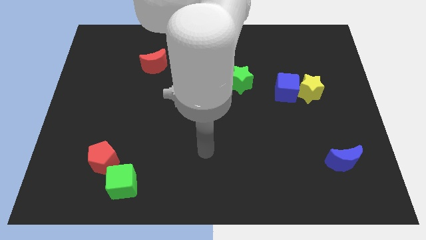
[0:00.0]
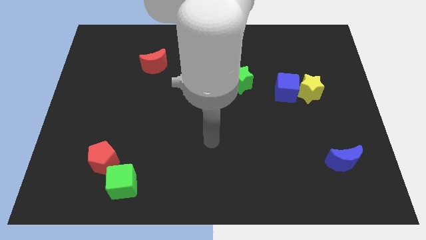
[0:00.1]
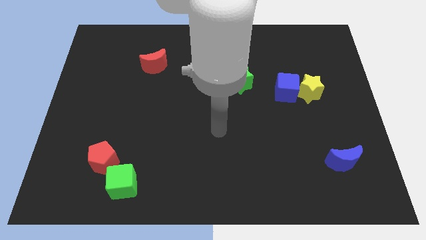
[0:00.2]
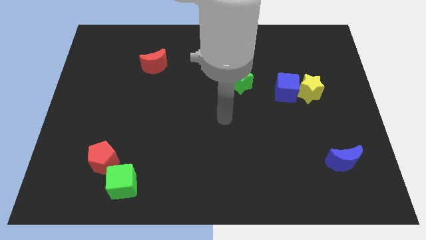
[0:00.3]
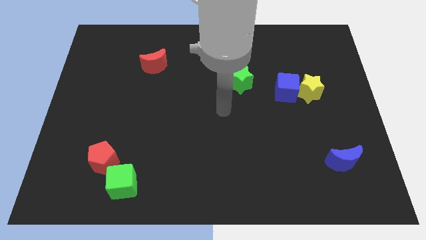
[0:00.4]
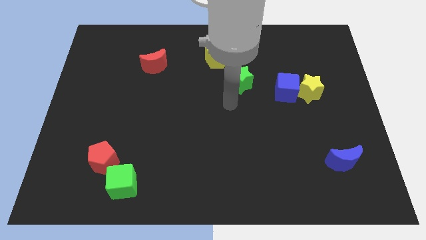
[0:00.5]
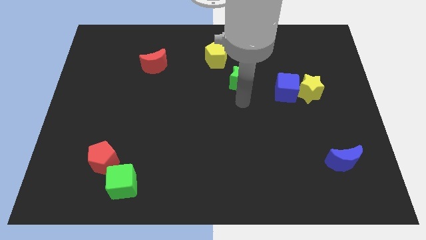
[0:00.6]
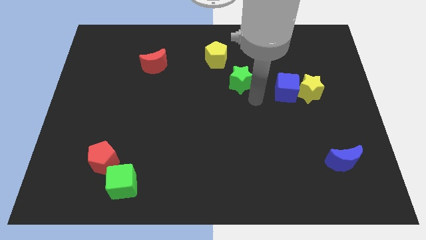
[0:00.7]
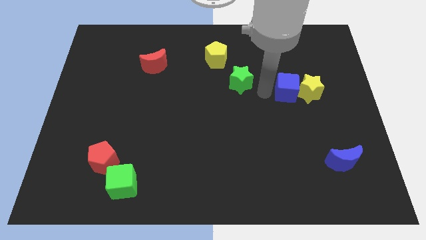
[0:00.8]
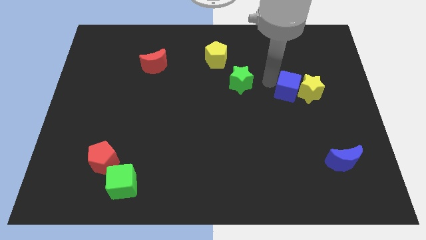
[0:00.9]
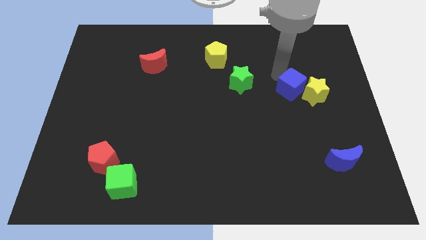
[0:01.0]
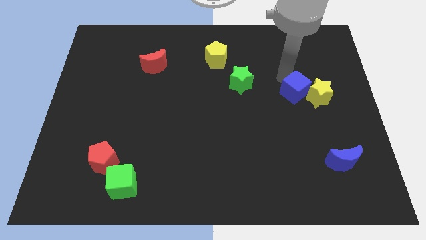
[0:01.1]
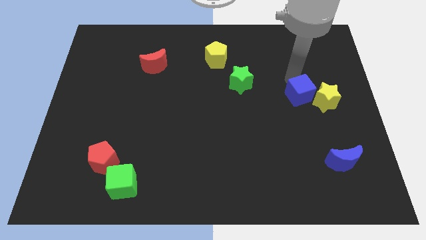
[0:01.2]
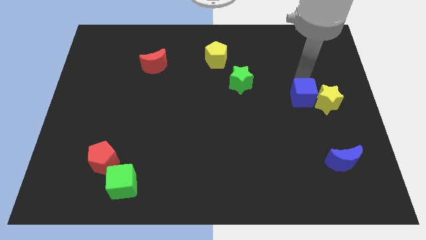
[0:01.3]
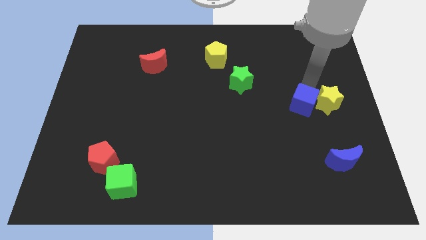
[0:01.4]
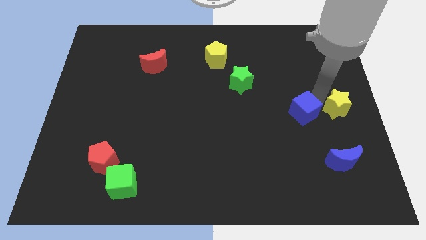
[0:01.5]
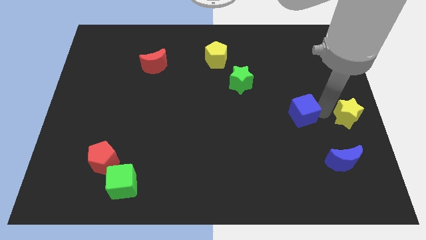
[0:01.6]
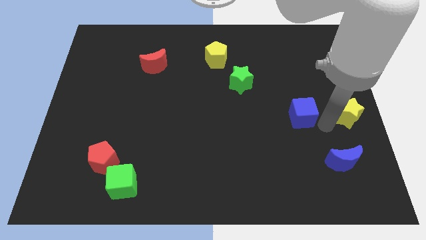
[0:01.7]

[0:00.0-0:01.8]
separate the blue cube from the yellow star

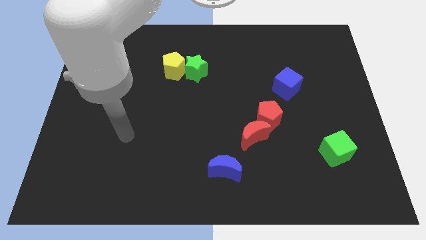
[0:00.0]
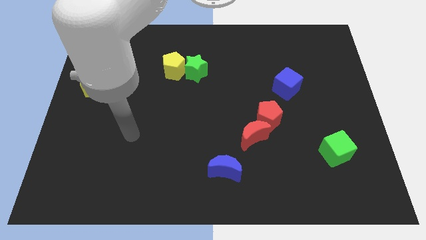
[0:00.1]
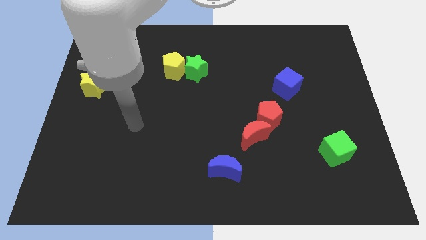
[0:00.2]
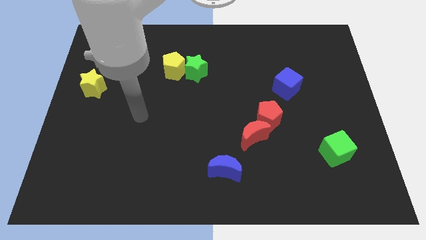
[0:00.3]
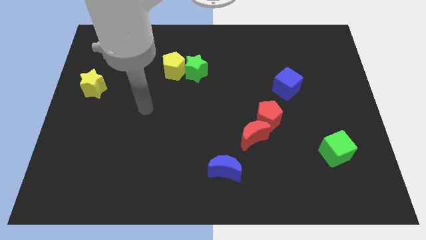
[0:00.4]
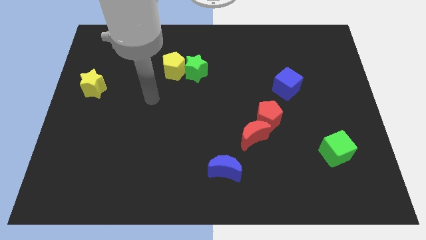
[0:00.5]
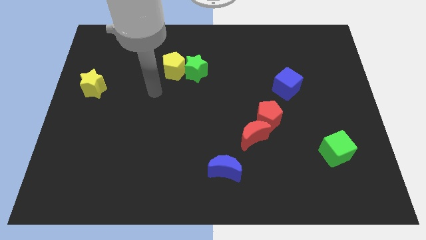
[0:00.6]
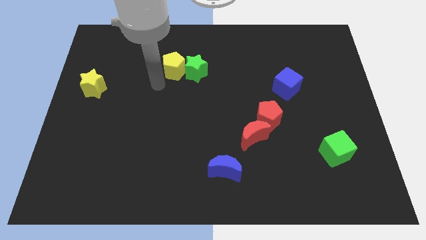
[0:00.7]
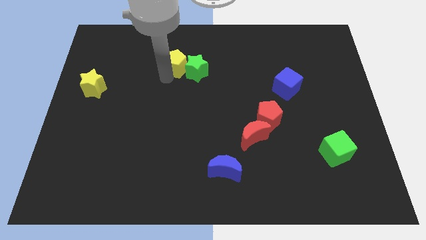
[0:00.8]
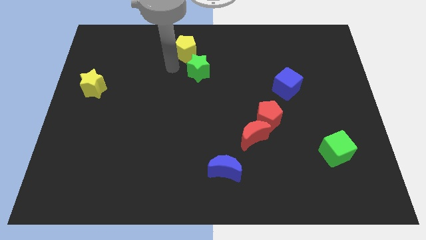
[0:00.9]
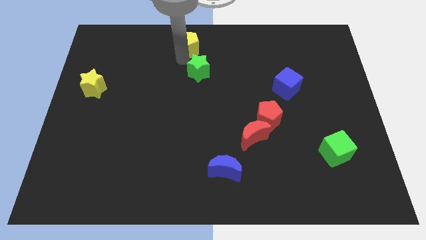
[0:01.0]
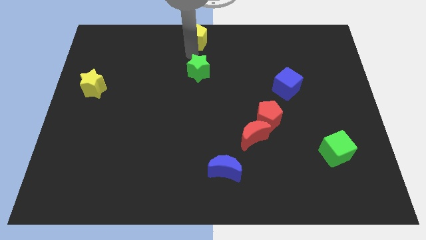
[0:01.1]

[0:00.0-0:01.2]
pull the green star apart from the yellow pentagon

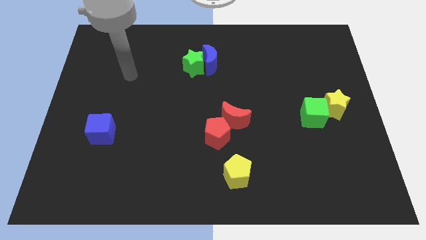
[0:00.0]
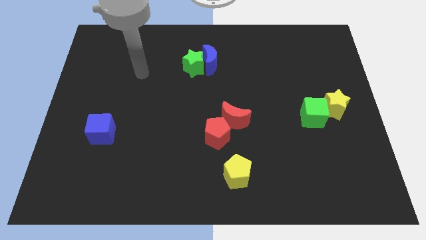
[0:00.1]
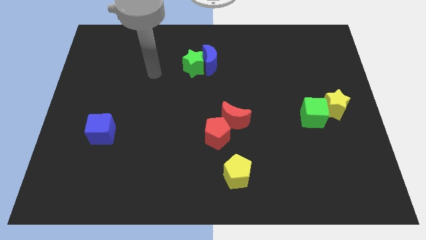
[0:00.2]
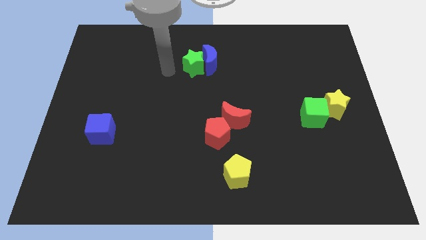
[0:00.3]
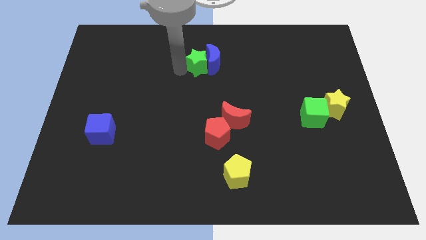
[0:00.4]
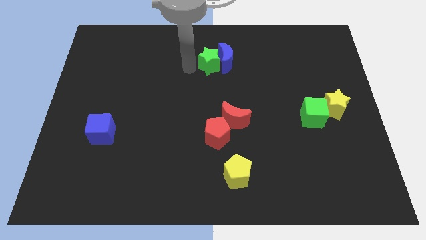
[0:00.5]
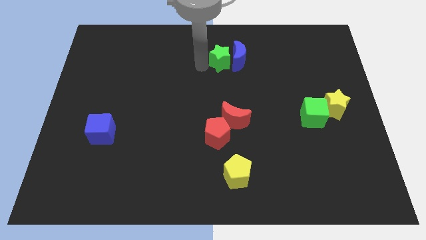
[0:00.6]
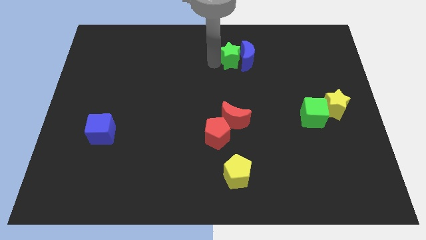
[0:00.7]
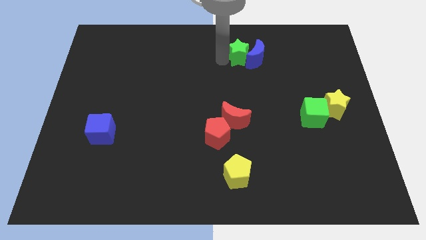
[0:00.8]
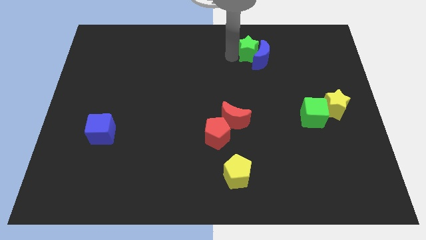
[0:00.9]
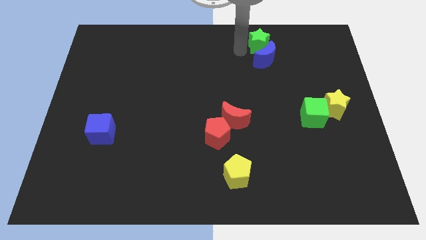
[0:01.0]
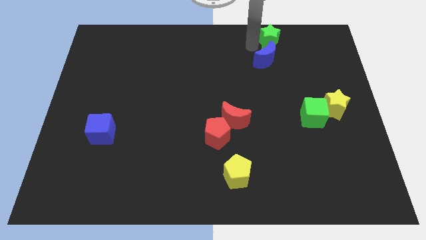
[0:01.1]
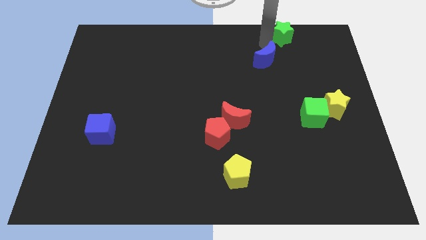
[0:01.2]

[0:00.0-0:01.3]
separate the blue moon from the green star

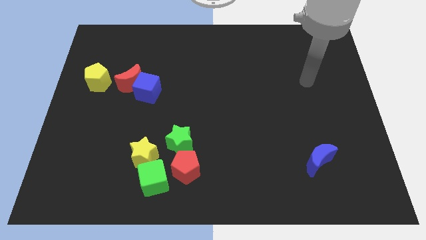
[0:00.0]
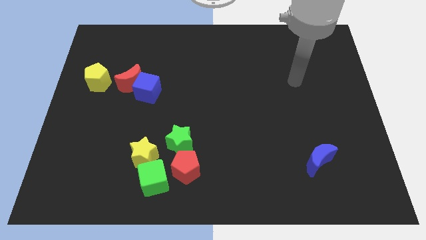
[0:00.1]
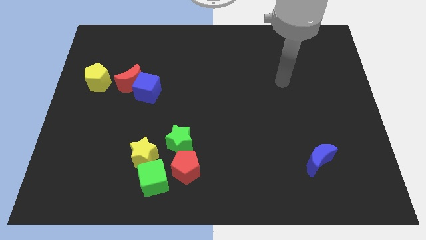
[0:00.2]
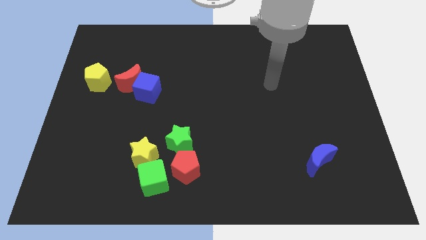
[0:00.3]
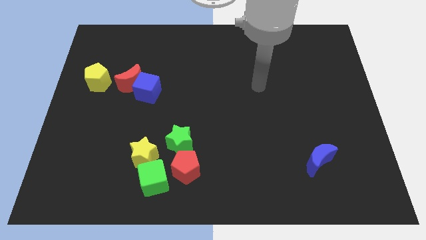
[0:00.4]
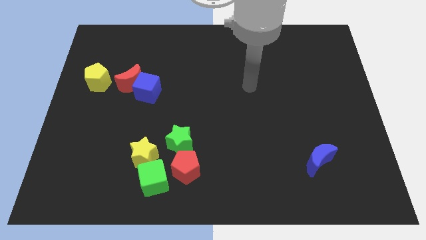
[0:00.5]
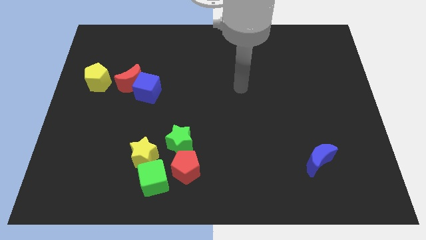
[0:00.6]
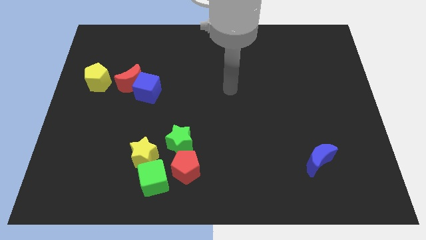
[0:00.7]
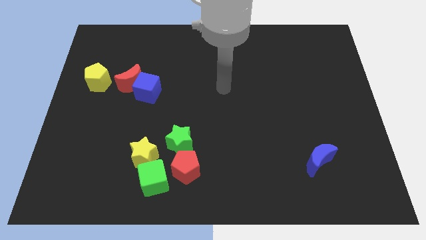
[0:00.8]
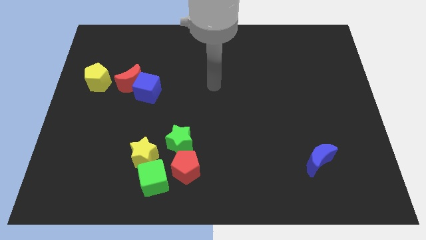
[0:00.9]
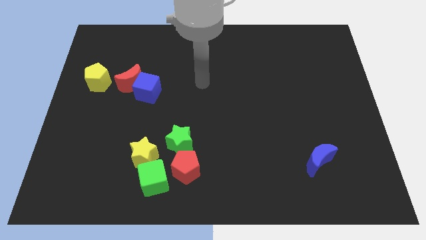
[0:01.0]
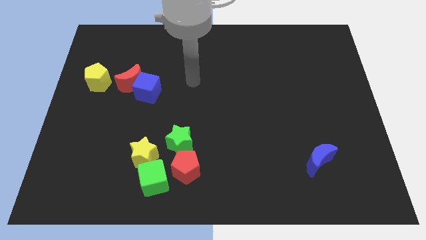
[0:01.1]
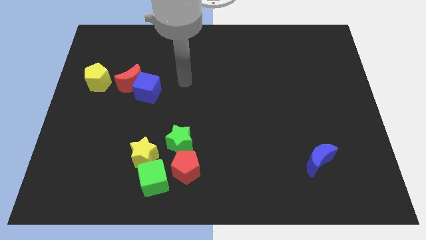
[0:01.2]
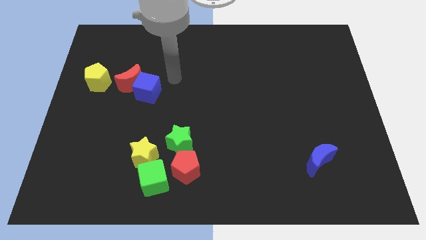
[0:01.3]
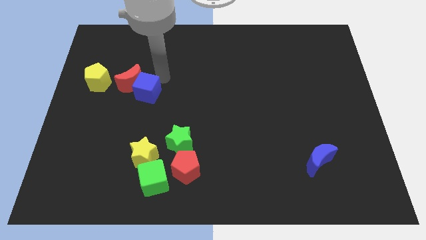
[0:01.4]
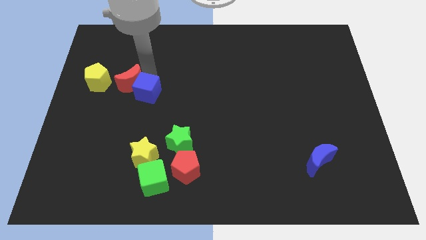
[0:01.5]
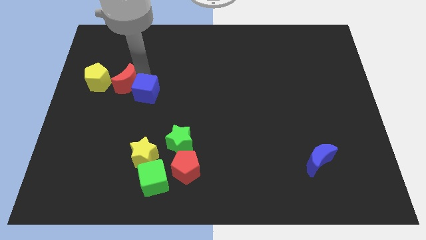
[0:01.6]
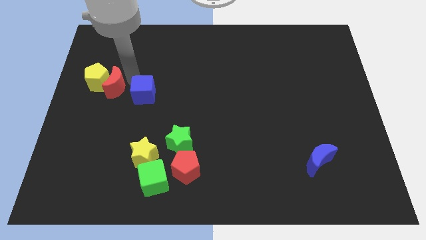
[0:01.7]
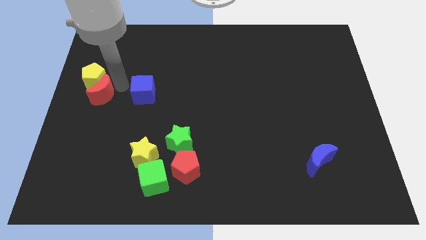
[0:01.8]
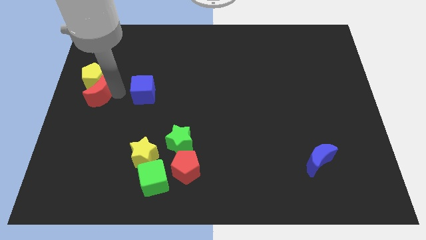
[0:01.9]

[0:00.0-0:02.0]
separate the blue cube from the red moon

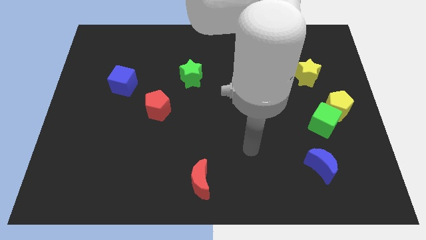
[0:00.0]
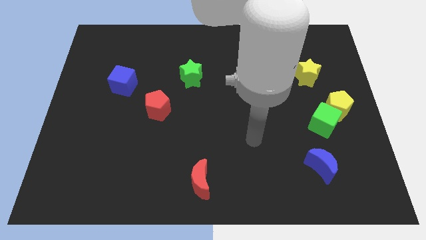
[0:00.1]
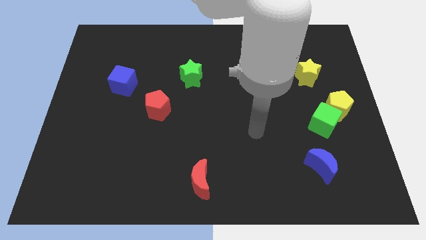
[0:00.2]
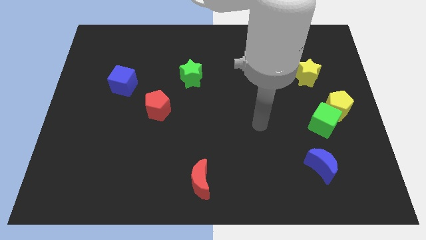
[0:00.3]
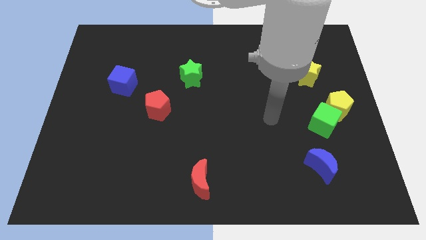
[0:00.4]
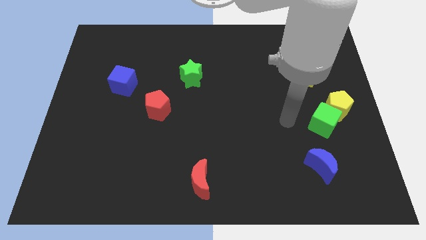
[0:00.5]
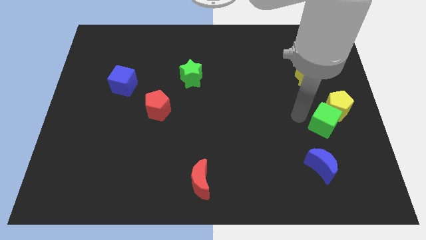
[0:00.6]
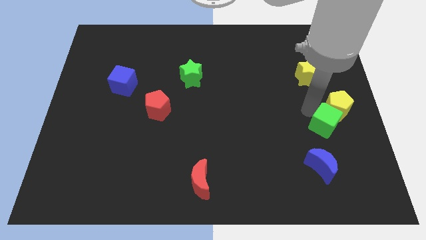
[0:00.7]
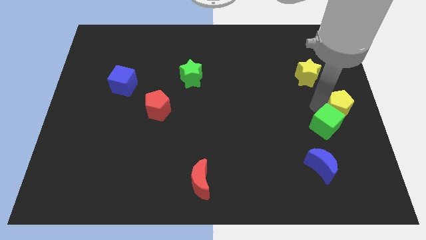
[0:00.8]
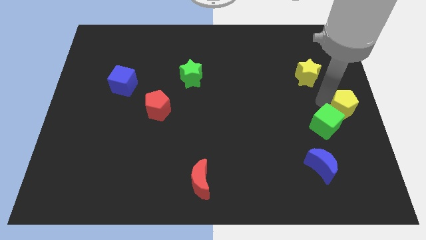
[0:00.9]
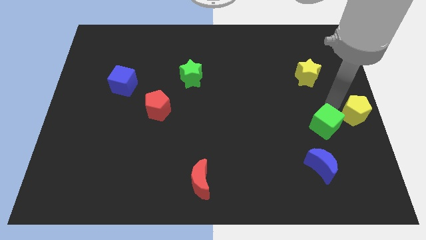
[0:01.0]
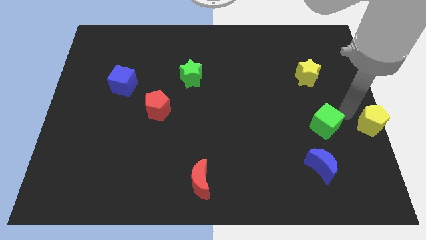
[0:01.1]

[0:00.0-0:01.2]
pull the green cube apart from the yellow pentagon

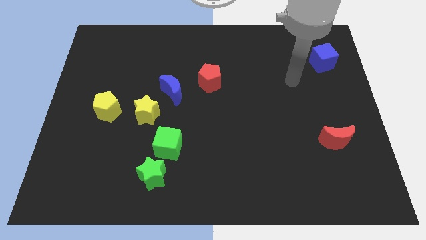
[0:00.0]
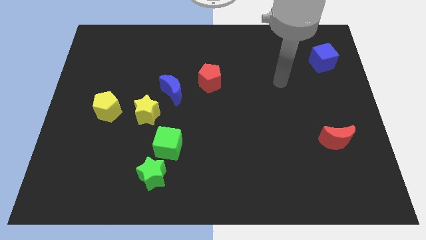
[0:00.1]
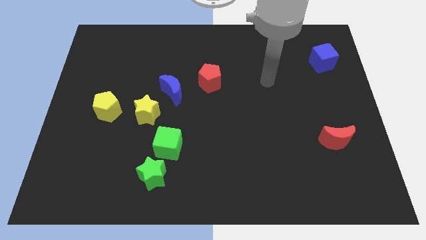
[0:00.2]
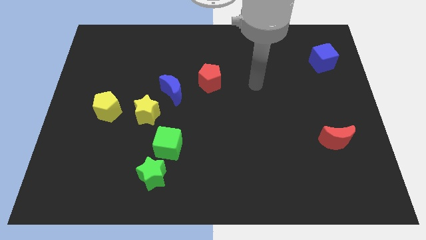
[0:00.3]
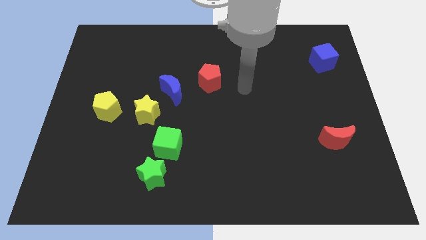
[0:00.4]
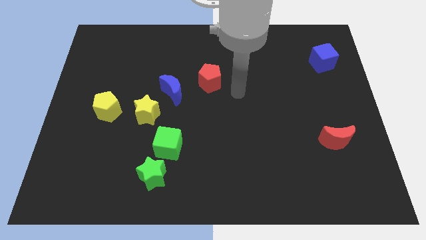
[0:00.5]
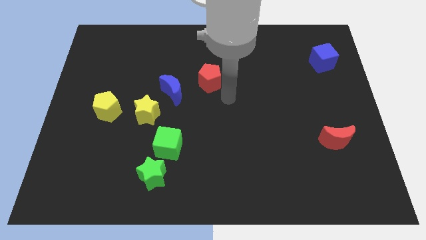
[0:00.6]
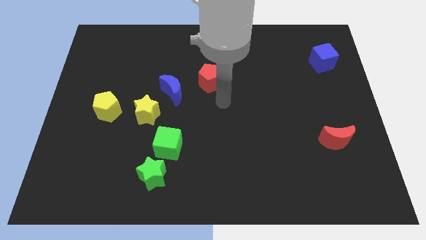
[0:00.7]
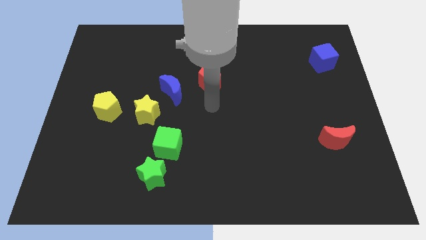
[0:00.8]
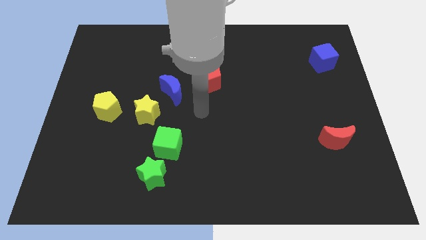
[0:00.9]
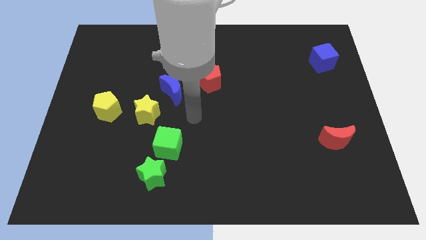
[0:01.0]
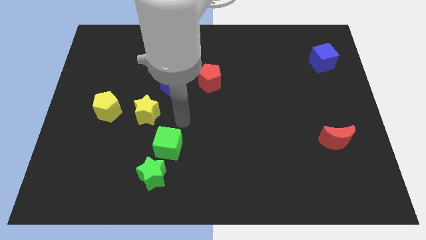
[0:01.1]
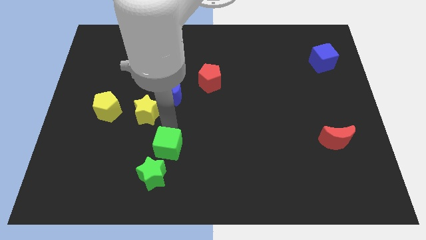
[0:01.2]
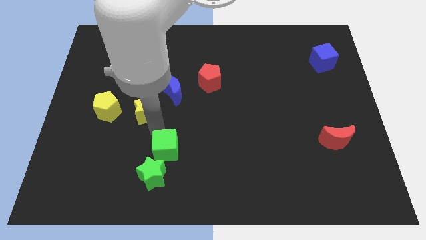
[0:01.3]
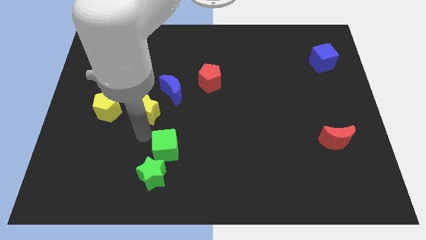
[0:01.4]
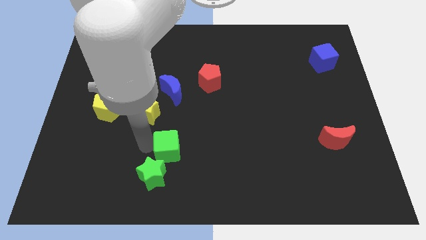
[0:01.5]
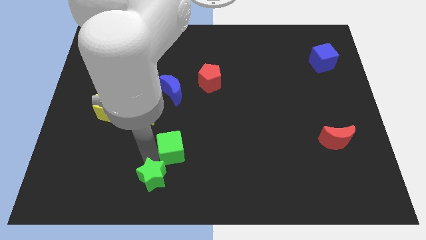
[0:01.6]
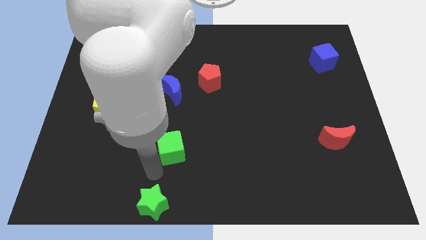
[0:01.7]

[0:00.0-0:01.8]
move the green cube away from the green star
